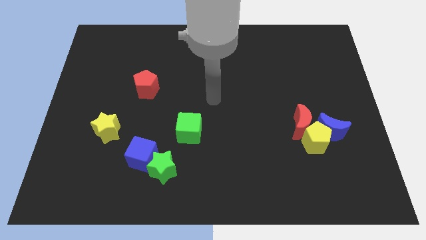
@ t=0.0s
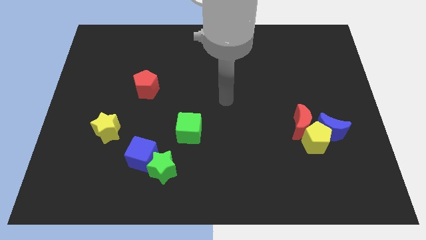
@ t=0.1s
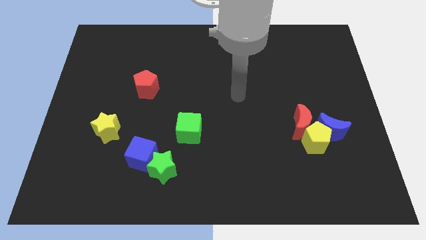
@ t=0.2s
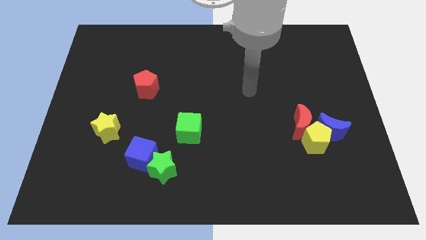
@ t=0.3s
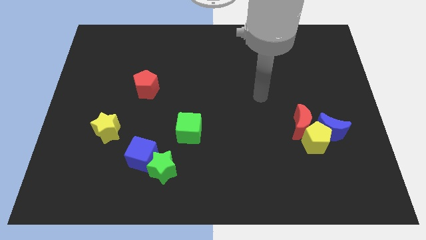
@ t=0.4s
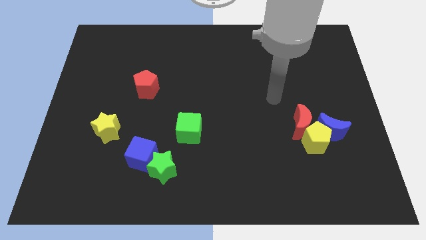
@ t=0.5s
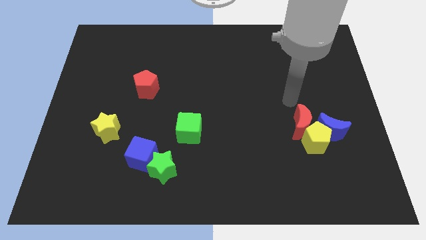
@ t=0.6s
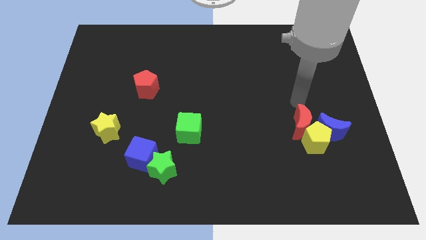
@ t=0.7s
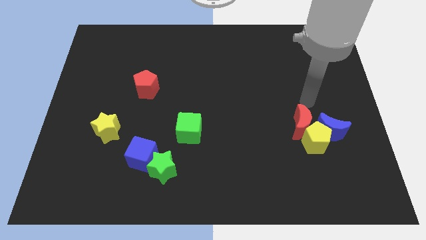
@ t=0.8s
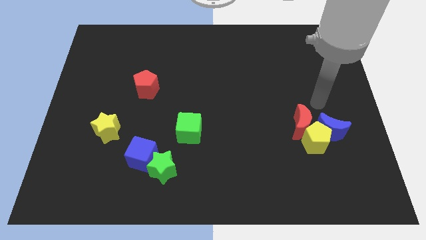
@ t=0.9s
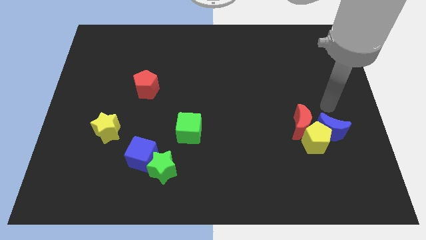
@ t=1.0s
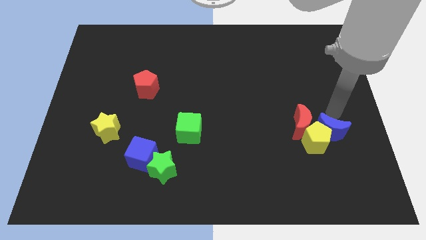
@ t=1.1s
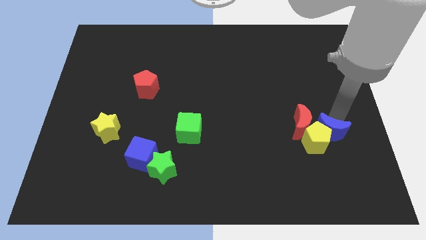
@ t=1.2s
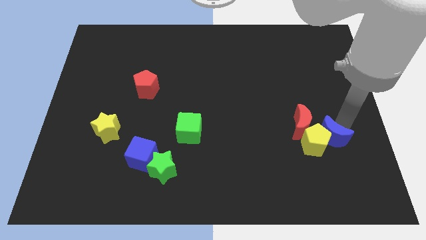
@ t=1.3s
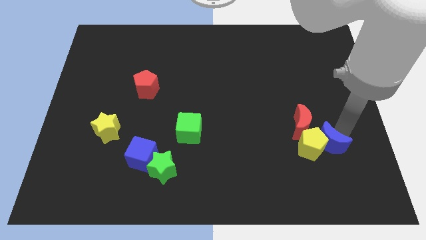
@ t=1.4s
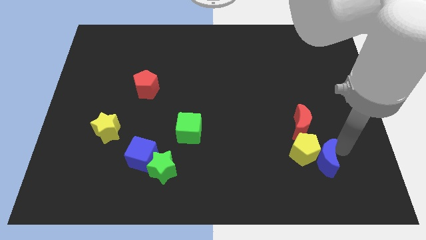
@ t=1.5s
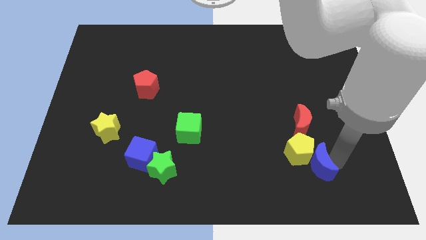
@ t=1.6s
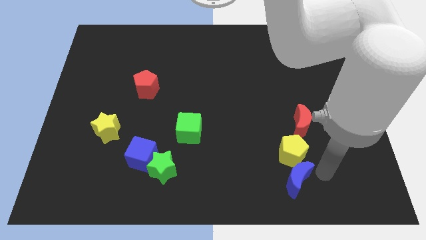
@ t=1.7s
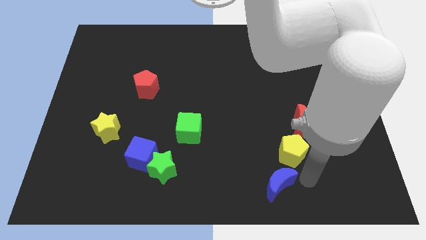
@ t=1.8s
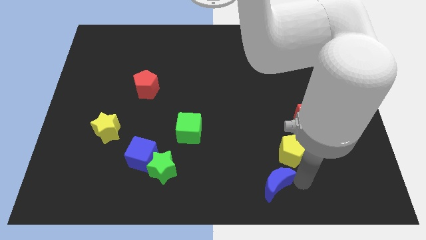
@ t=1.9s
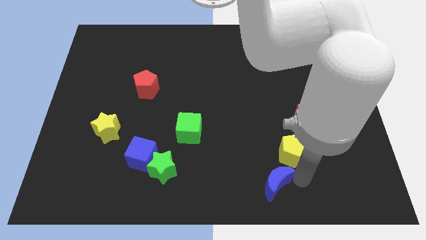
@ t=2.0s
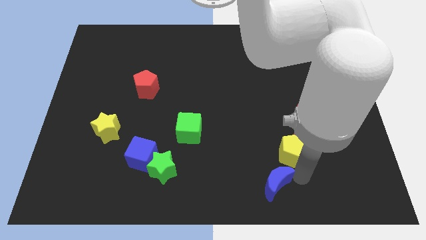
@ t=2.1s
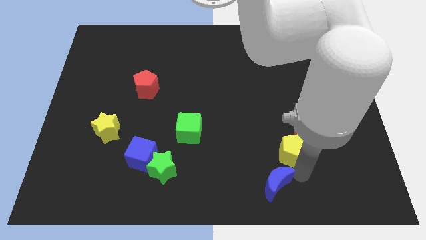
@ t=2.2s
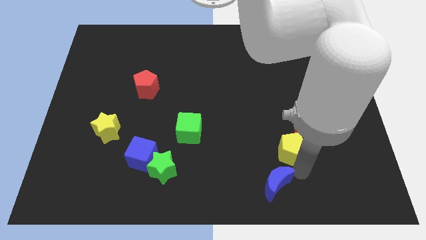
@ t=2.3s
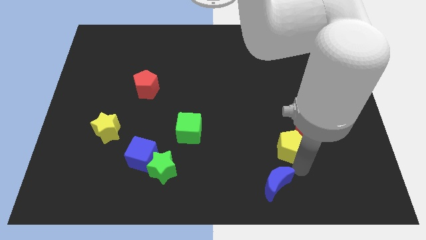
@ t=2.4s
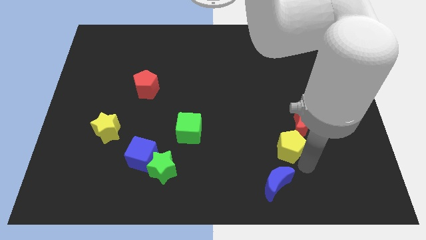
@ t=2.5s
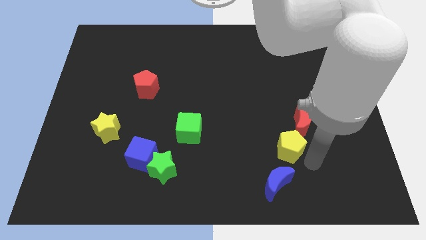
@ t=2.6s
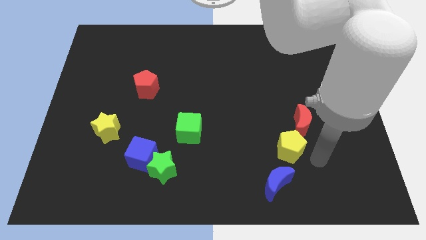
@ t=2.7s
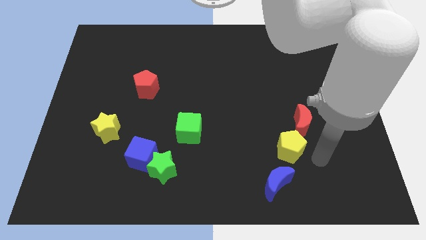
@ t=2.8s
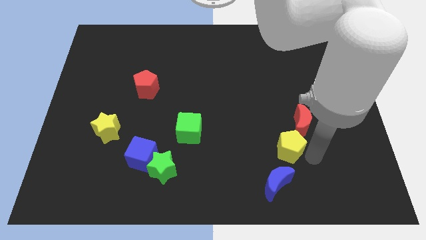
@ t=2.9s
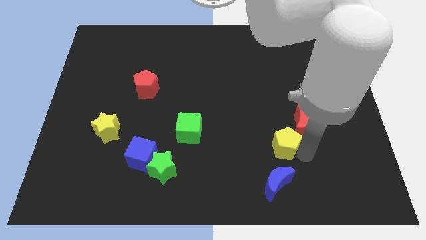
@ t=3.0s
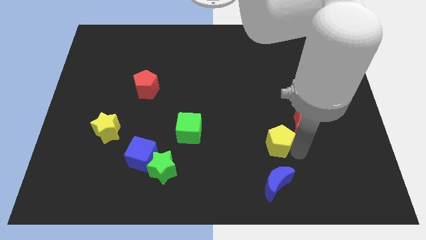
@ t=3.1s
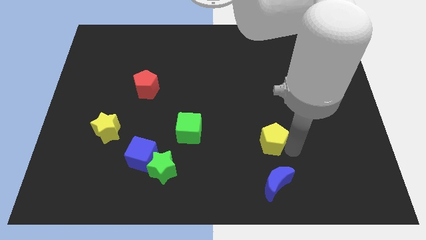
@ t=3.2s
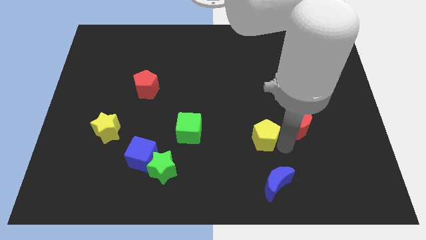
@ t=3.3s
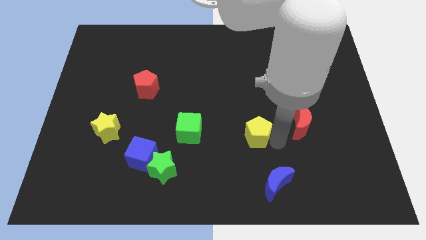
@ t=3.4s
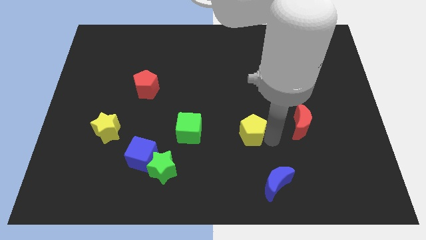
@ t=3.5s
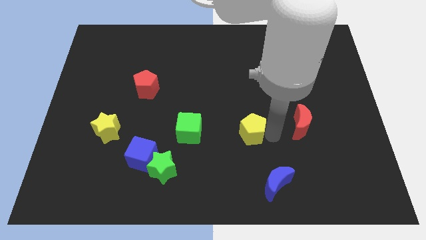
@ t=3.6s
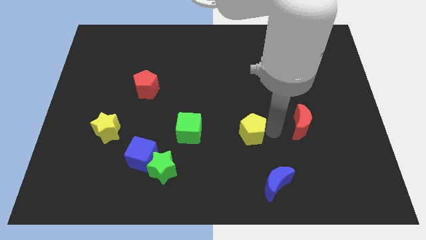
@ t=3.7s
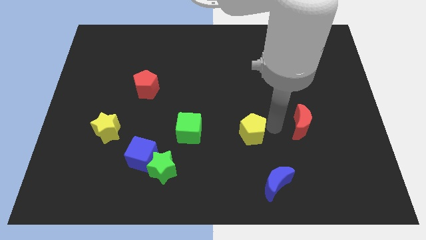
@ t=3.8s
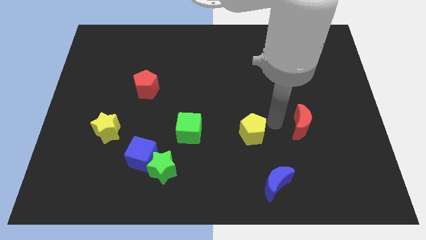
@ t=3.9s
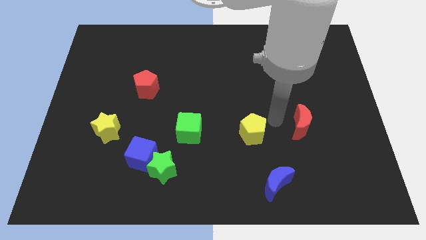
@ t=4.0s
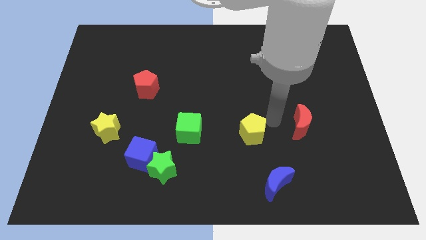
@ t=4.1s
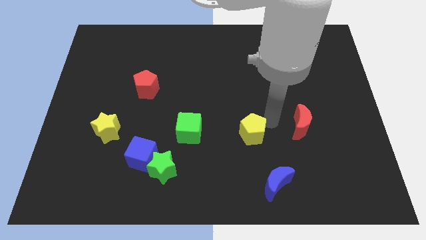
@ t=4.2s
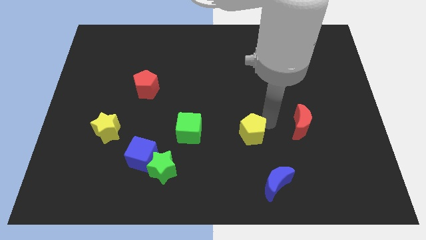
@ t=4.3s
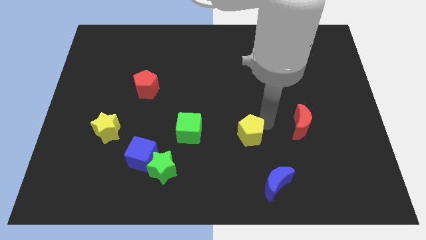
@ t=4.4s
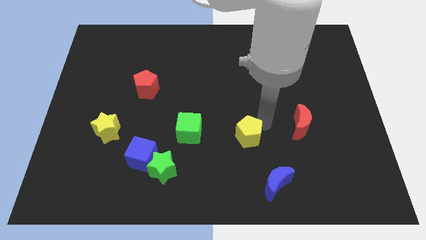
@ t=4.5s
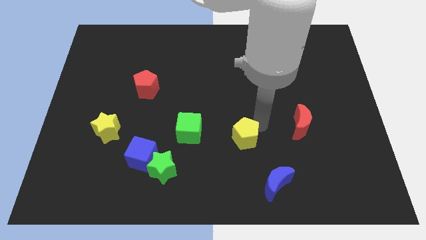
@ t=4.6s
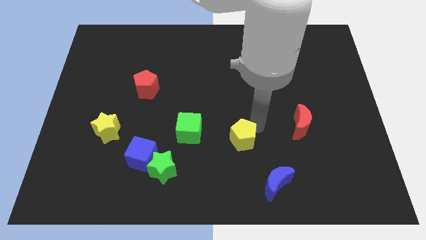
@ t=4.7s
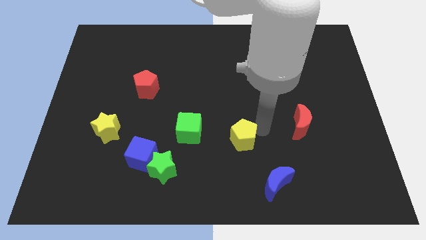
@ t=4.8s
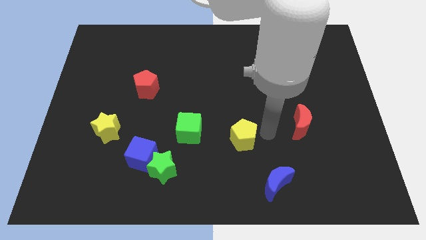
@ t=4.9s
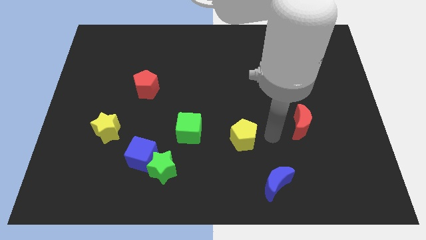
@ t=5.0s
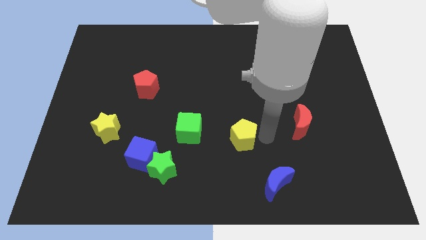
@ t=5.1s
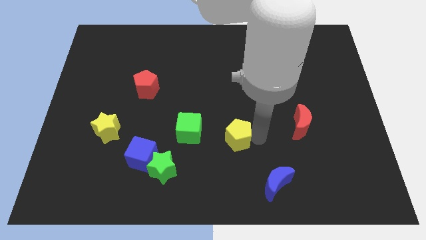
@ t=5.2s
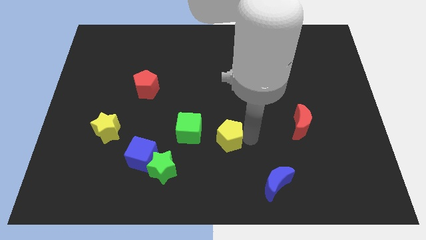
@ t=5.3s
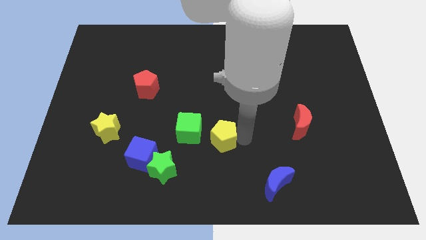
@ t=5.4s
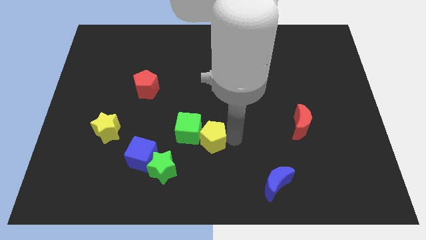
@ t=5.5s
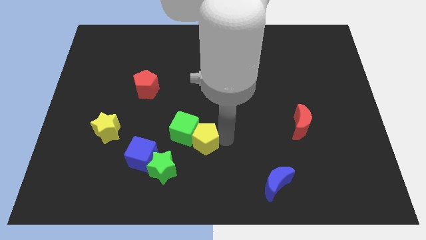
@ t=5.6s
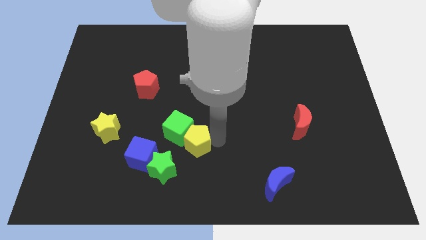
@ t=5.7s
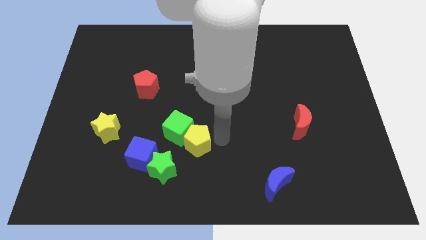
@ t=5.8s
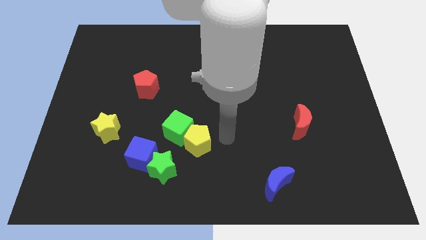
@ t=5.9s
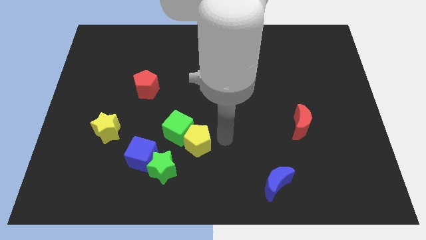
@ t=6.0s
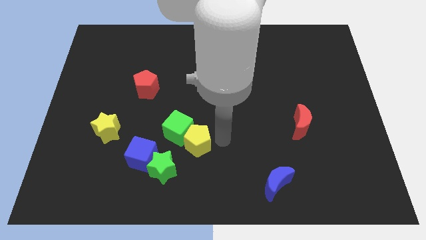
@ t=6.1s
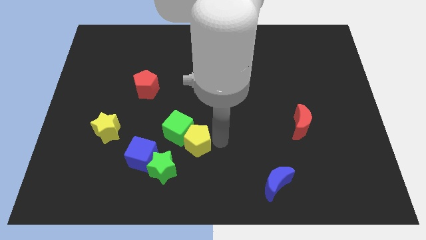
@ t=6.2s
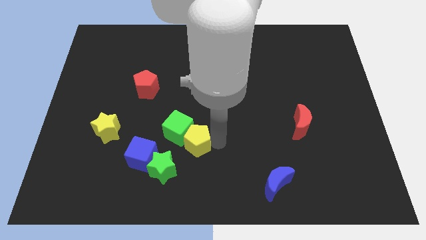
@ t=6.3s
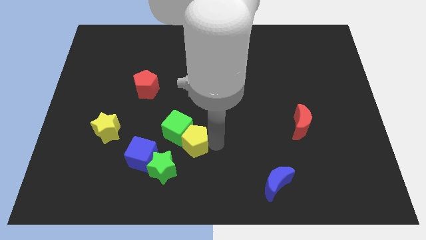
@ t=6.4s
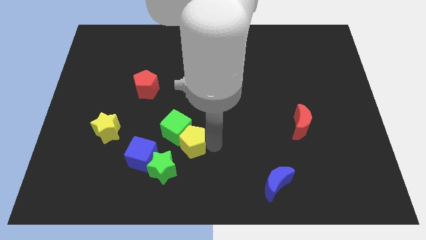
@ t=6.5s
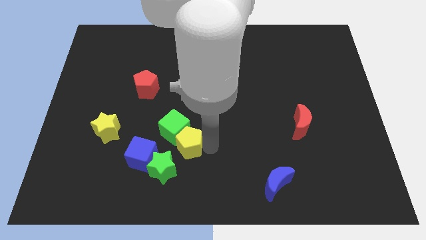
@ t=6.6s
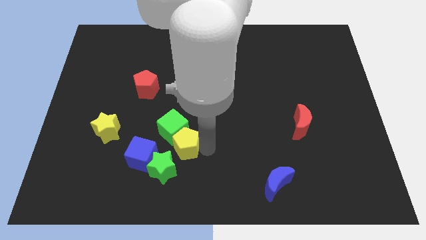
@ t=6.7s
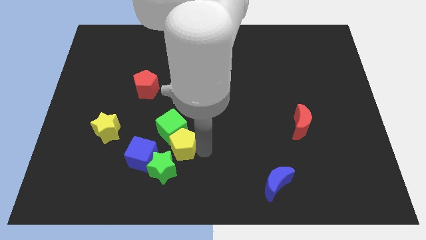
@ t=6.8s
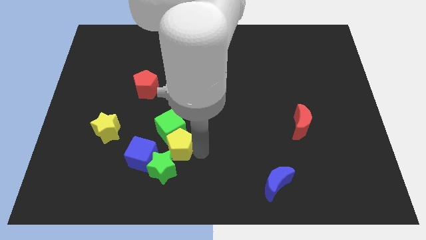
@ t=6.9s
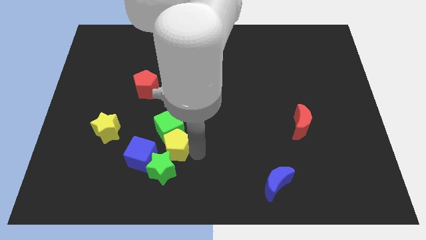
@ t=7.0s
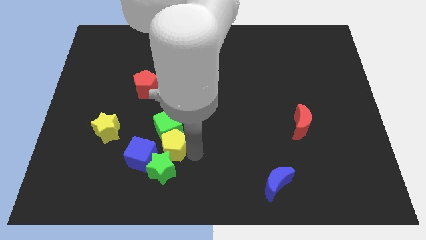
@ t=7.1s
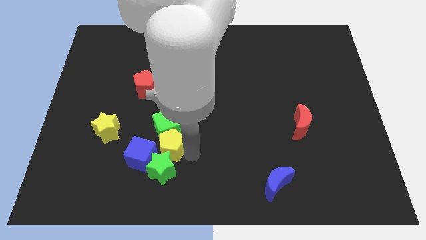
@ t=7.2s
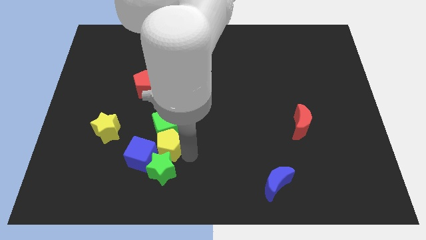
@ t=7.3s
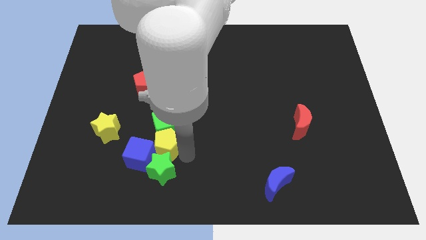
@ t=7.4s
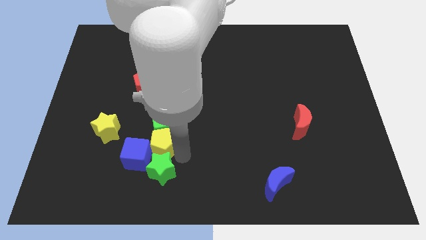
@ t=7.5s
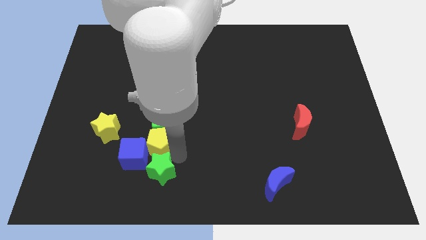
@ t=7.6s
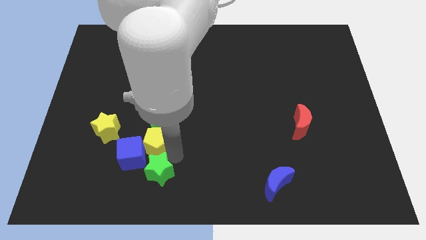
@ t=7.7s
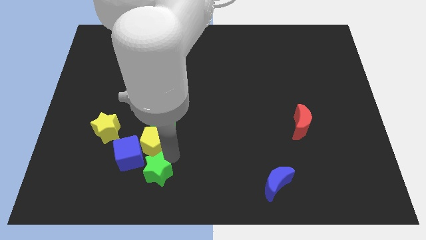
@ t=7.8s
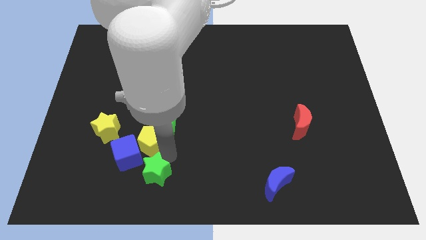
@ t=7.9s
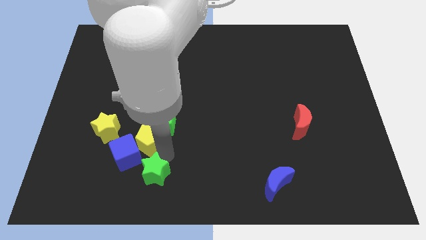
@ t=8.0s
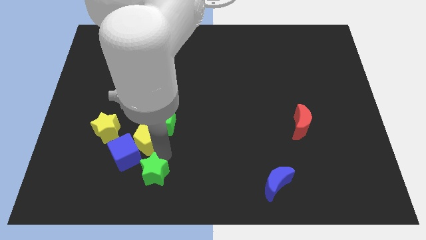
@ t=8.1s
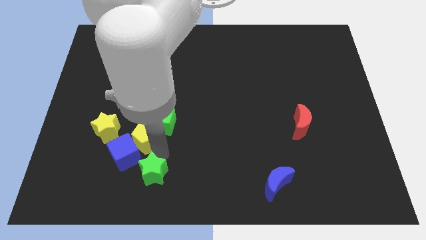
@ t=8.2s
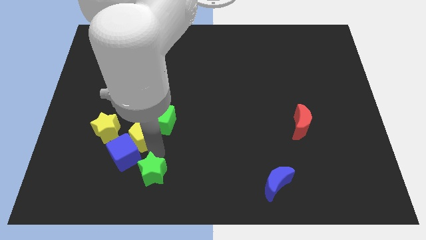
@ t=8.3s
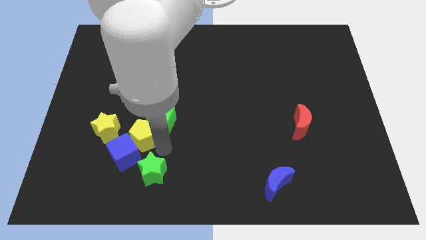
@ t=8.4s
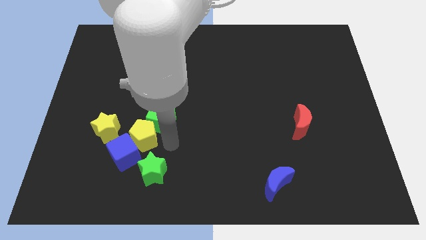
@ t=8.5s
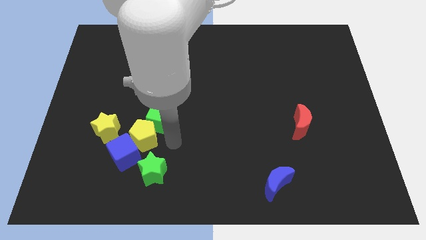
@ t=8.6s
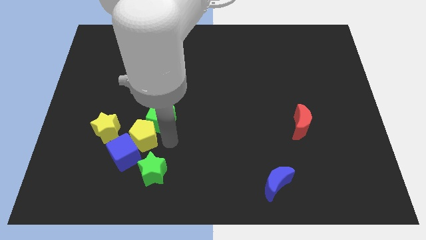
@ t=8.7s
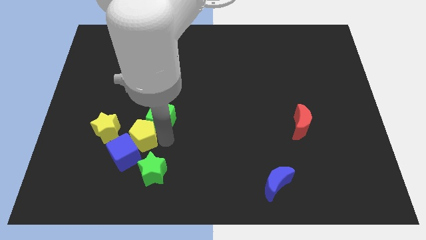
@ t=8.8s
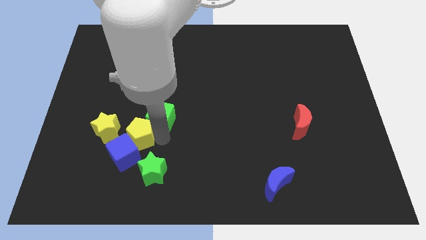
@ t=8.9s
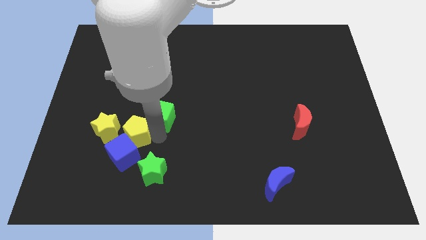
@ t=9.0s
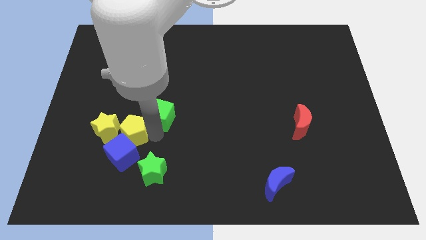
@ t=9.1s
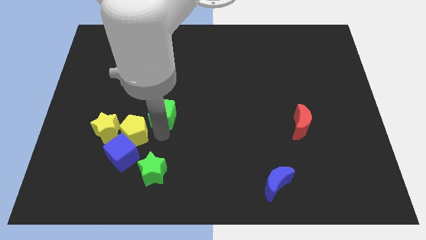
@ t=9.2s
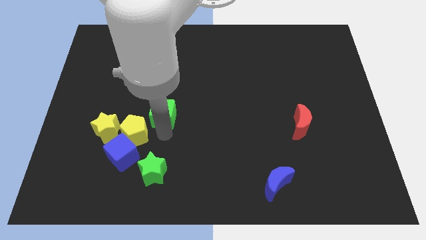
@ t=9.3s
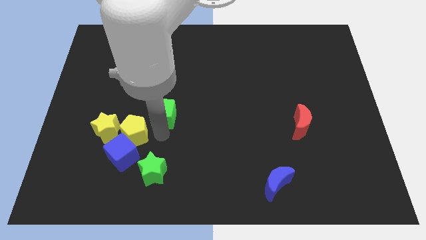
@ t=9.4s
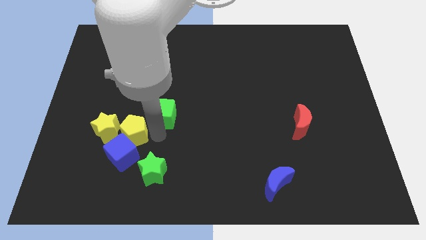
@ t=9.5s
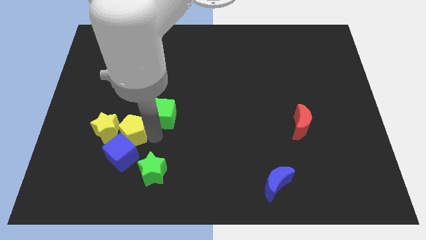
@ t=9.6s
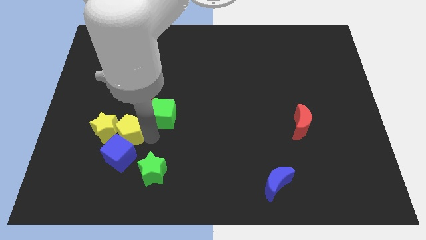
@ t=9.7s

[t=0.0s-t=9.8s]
push the yellow pentagon to the top left of the blue cube
